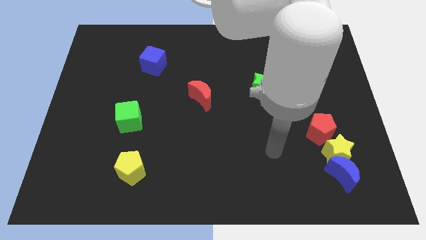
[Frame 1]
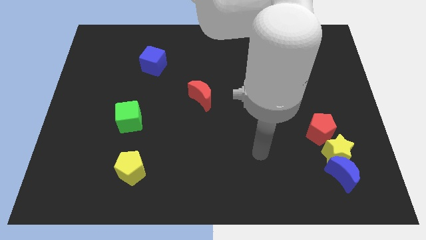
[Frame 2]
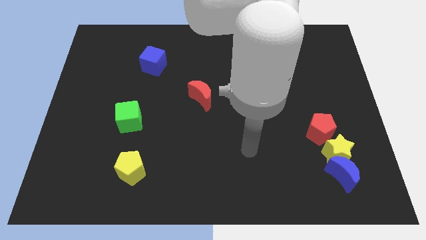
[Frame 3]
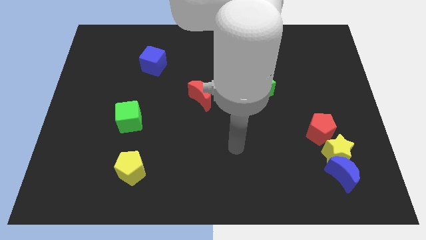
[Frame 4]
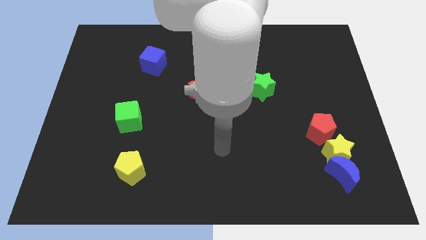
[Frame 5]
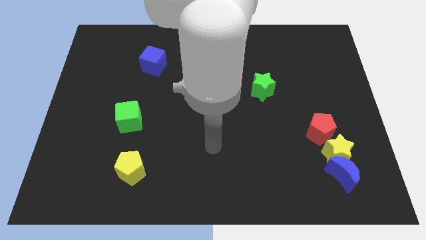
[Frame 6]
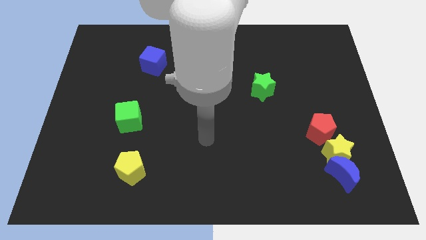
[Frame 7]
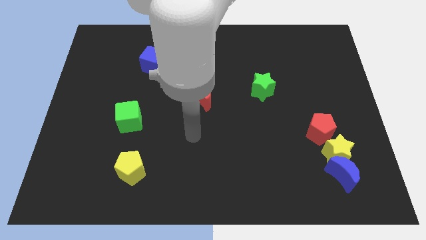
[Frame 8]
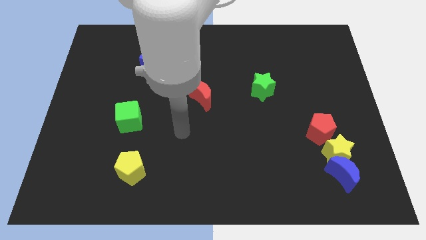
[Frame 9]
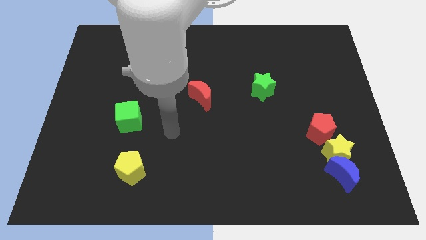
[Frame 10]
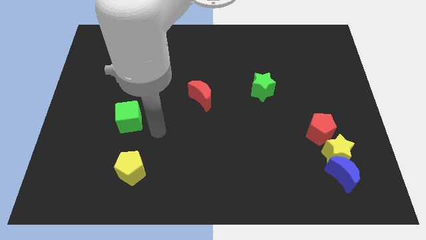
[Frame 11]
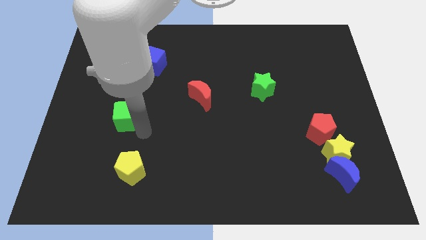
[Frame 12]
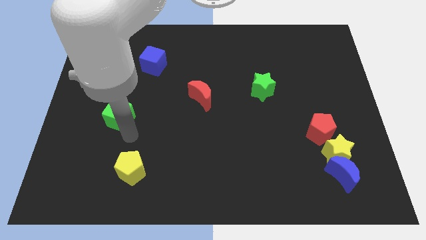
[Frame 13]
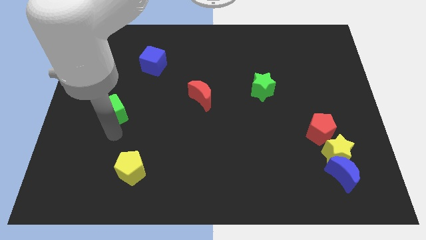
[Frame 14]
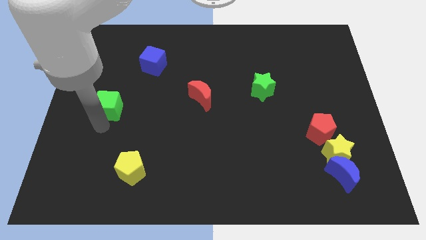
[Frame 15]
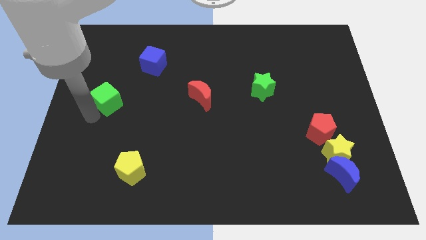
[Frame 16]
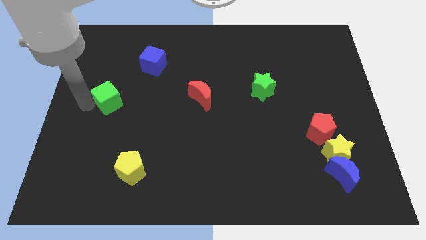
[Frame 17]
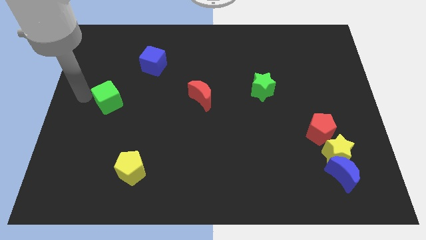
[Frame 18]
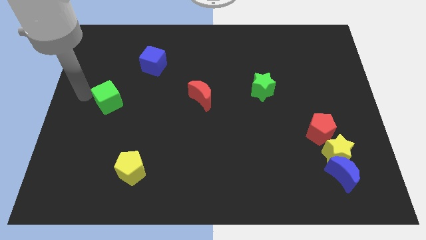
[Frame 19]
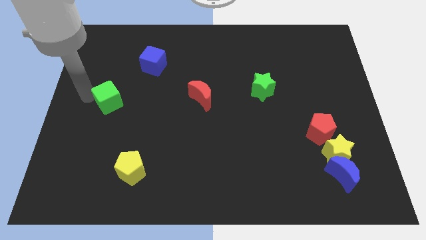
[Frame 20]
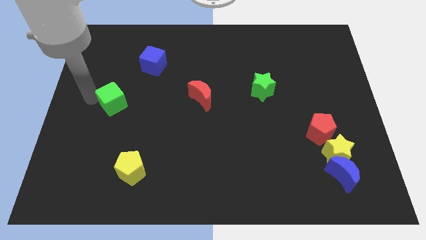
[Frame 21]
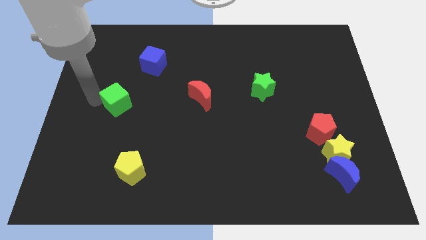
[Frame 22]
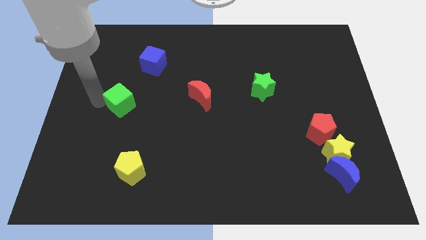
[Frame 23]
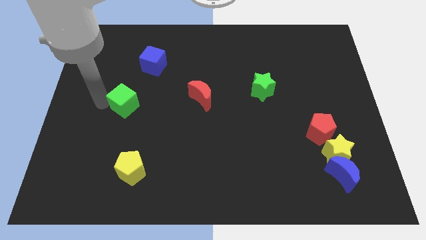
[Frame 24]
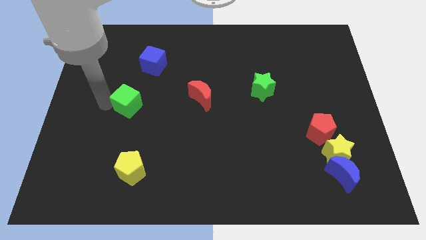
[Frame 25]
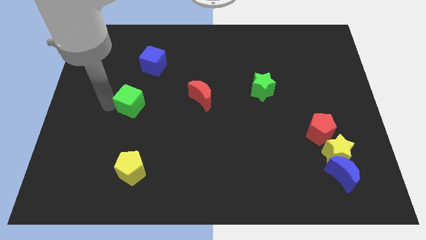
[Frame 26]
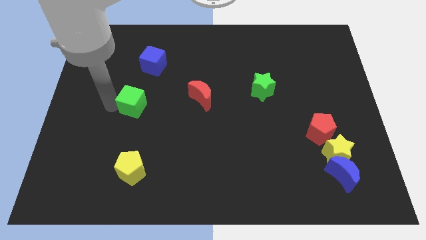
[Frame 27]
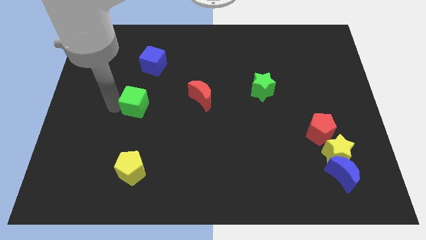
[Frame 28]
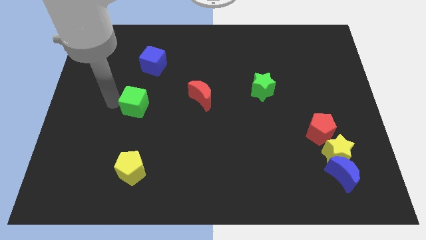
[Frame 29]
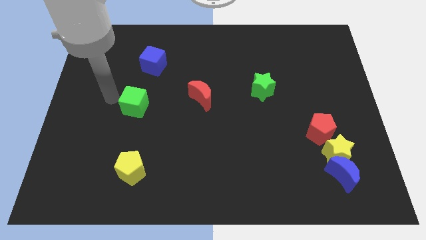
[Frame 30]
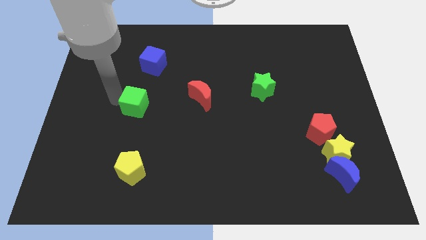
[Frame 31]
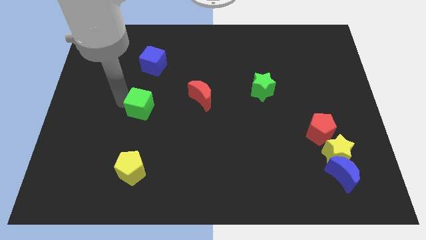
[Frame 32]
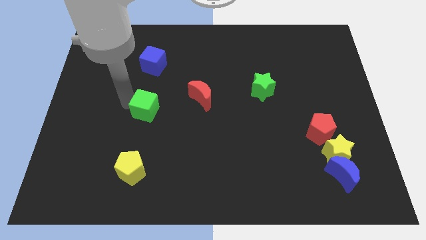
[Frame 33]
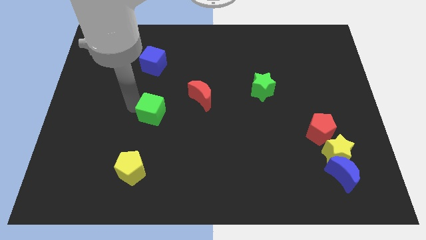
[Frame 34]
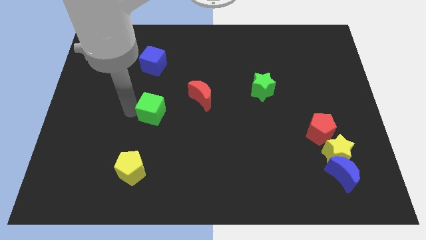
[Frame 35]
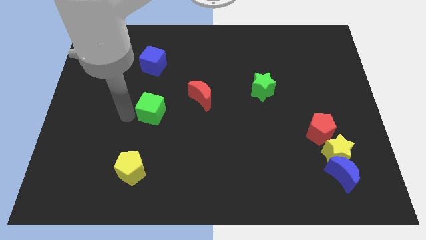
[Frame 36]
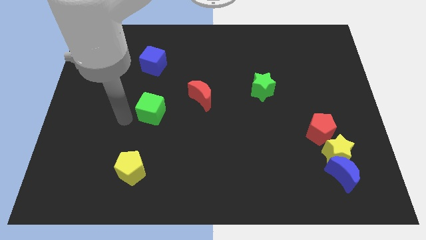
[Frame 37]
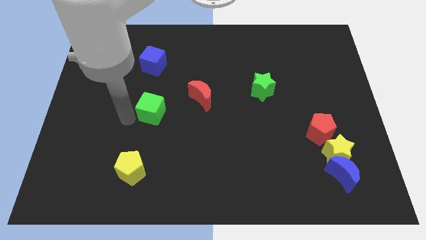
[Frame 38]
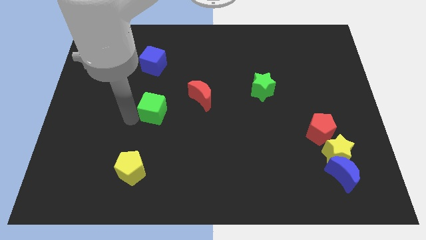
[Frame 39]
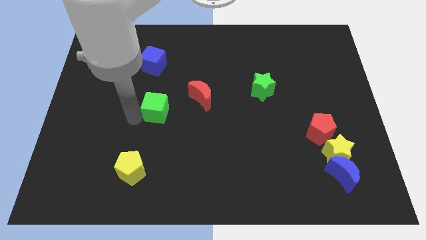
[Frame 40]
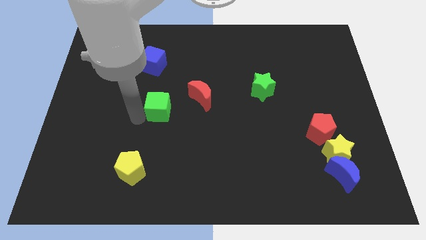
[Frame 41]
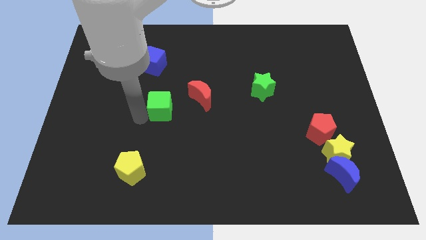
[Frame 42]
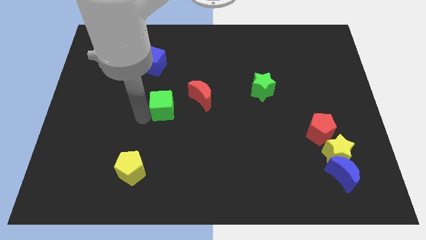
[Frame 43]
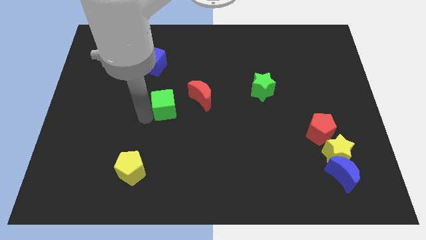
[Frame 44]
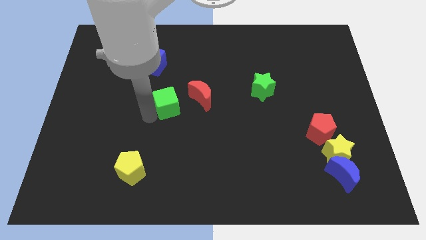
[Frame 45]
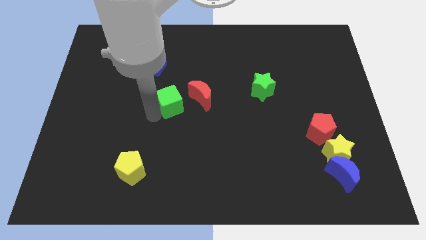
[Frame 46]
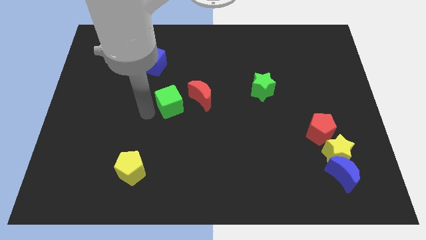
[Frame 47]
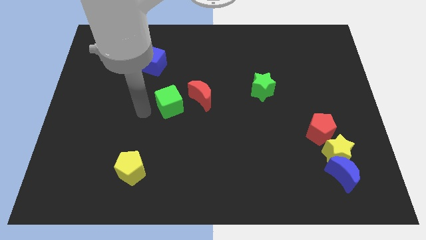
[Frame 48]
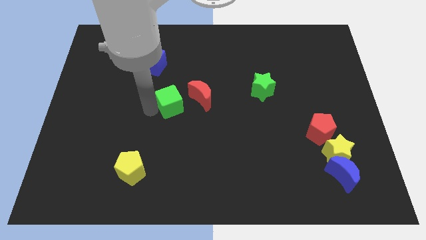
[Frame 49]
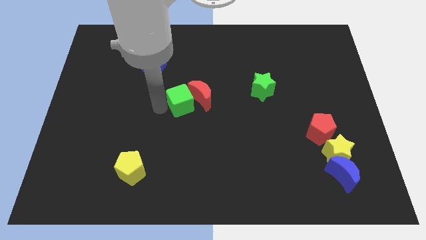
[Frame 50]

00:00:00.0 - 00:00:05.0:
move the green cube to the red moon

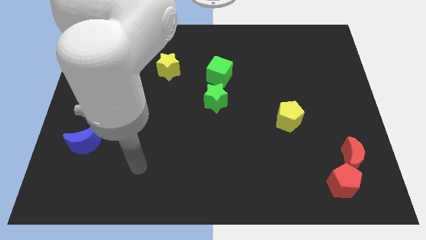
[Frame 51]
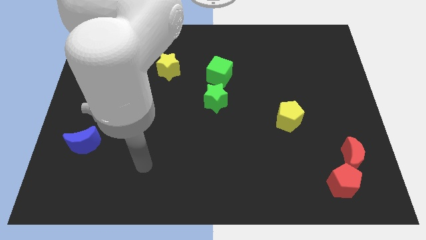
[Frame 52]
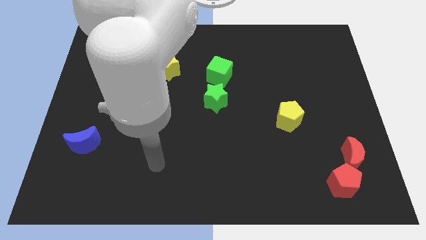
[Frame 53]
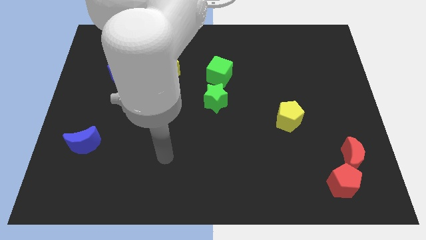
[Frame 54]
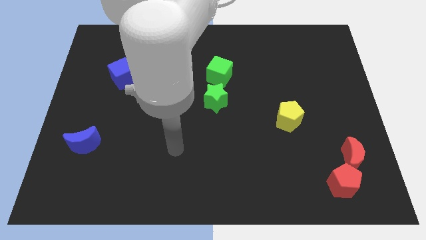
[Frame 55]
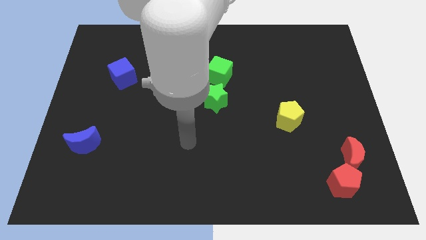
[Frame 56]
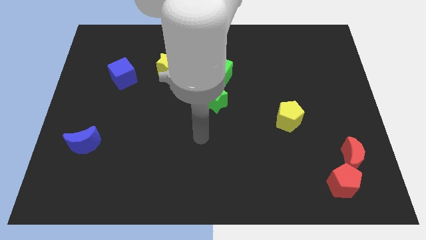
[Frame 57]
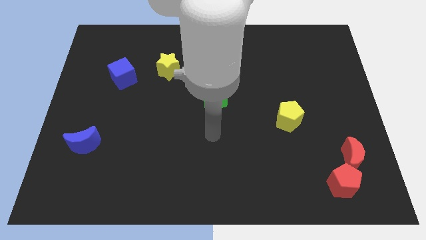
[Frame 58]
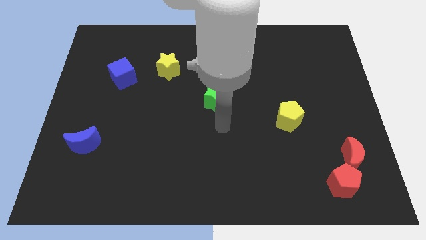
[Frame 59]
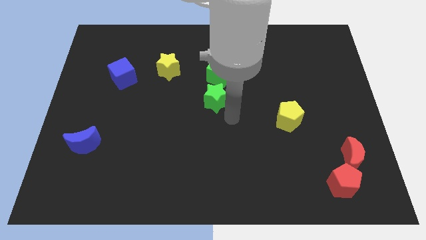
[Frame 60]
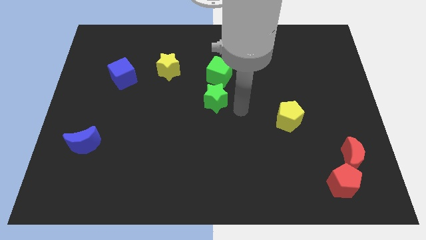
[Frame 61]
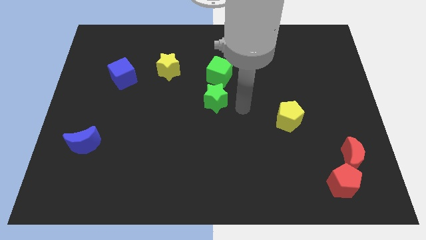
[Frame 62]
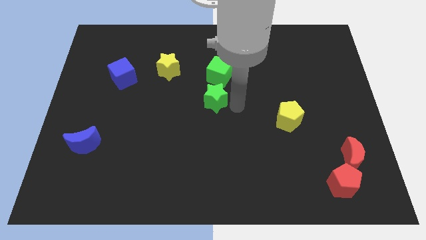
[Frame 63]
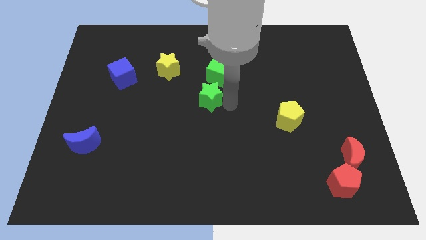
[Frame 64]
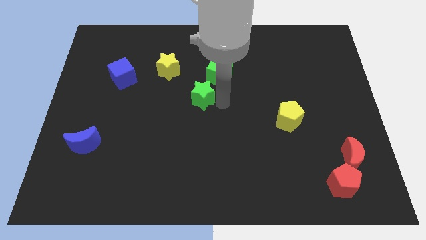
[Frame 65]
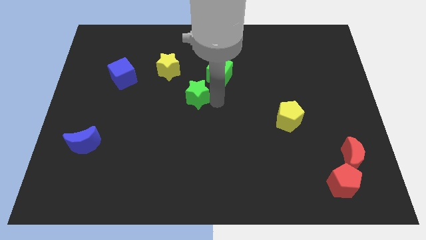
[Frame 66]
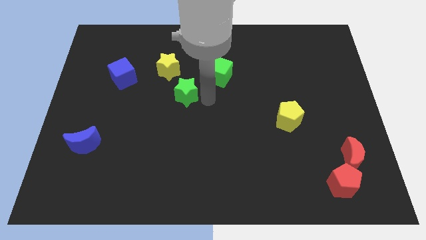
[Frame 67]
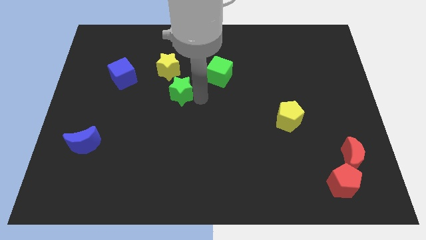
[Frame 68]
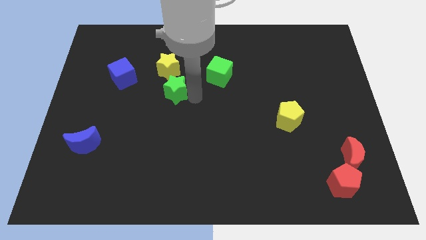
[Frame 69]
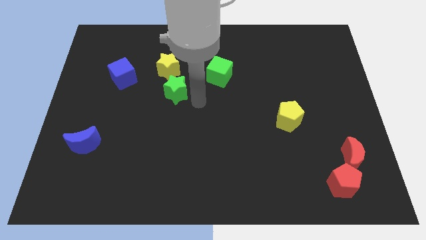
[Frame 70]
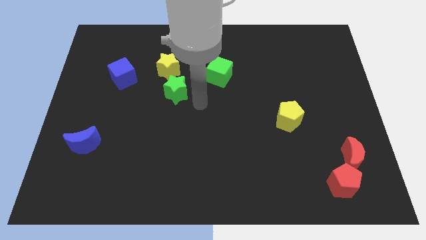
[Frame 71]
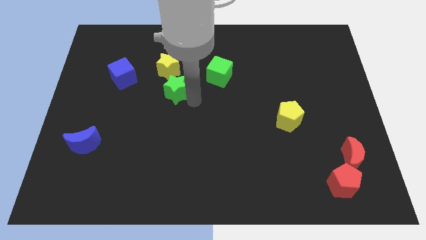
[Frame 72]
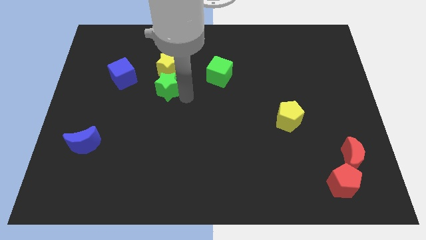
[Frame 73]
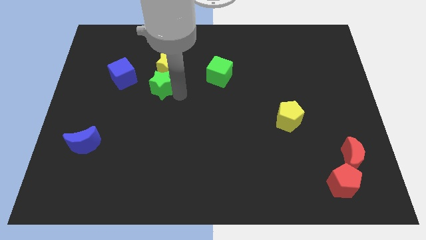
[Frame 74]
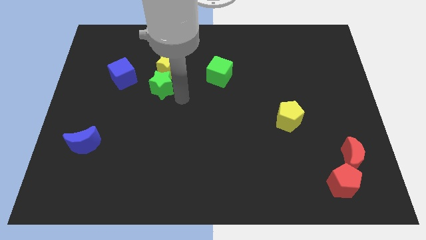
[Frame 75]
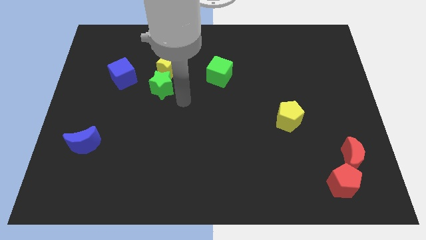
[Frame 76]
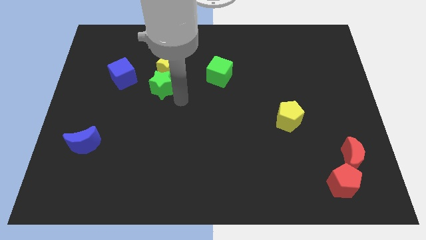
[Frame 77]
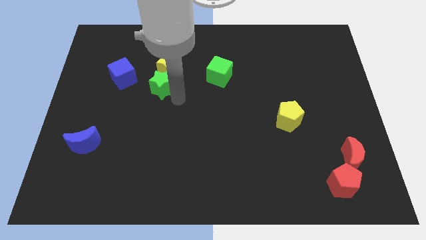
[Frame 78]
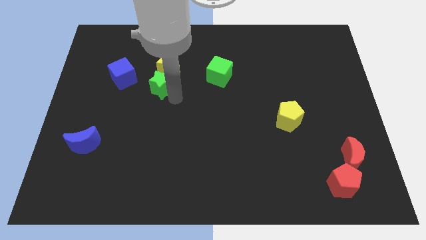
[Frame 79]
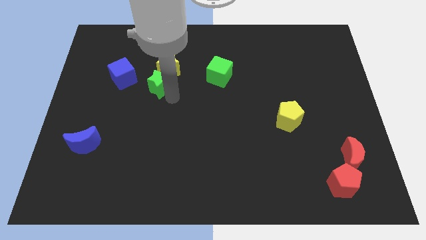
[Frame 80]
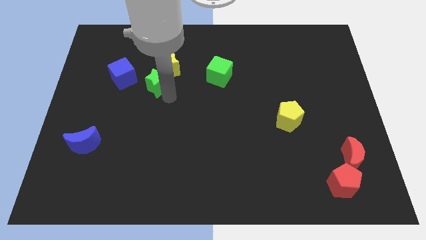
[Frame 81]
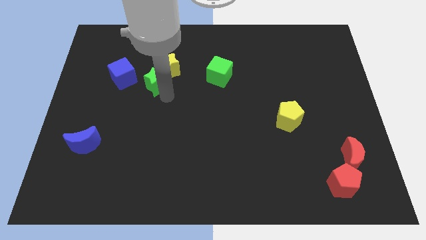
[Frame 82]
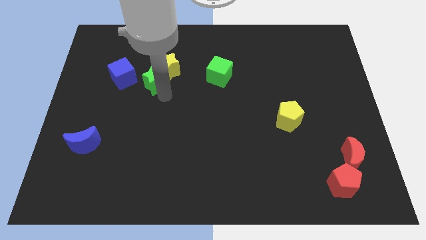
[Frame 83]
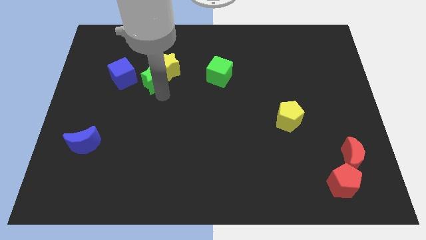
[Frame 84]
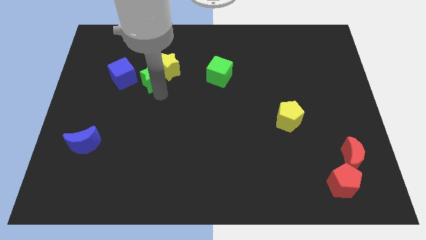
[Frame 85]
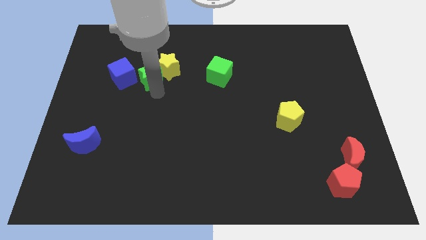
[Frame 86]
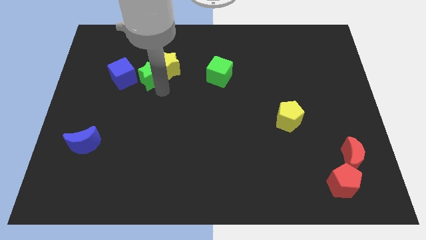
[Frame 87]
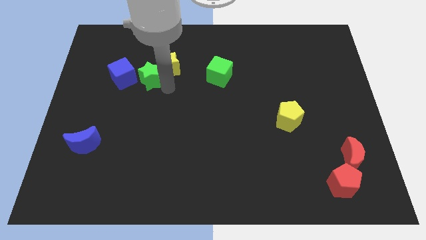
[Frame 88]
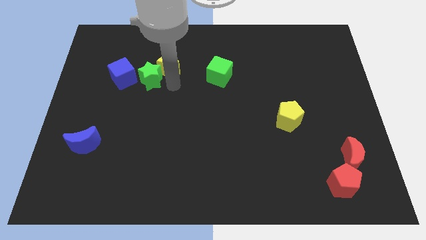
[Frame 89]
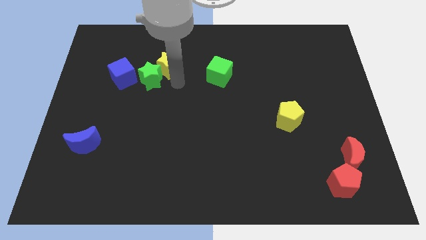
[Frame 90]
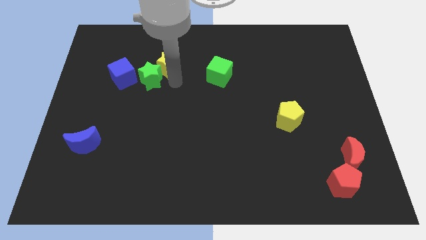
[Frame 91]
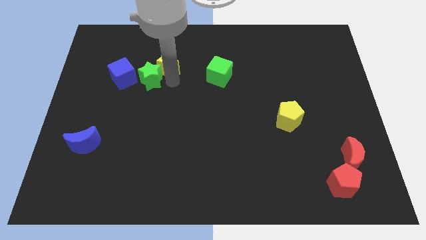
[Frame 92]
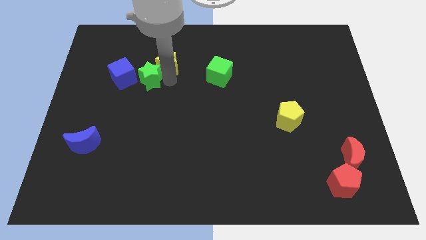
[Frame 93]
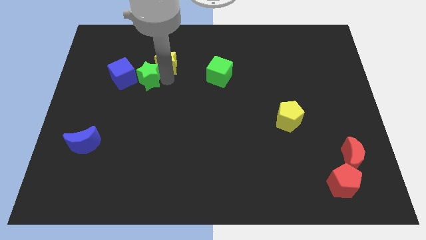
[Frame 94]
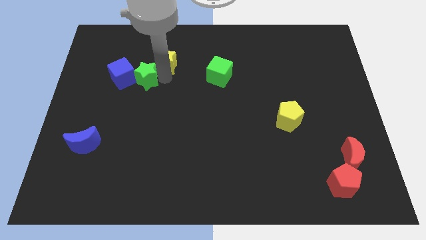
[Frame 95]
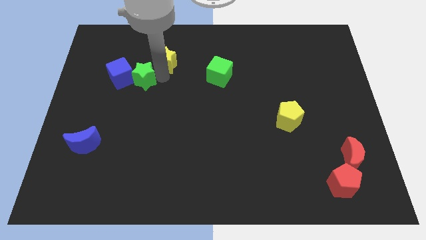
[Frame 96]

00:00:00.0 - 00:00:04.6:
move the green star to the blue cube
